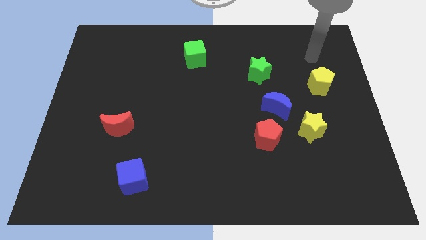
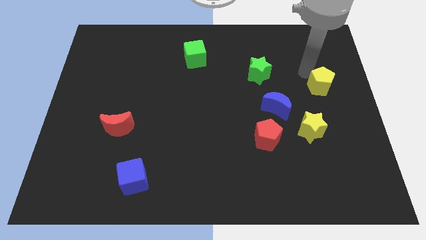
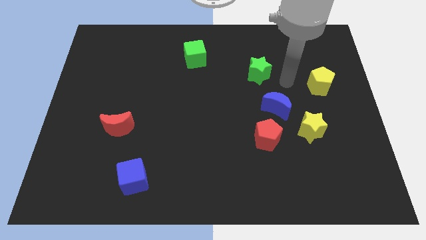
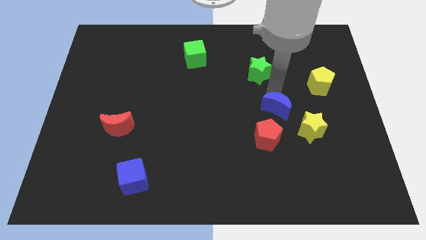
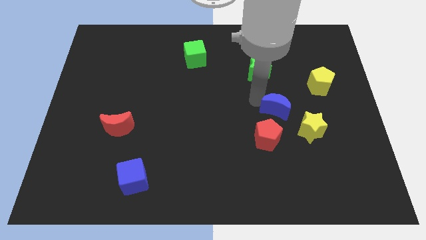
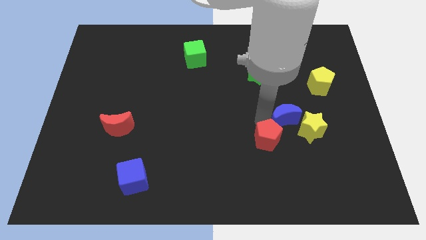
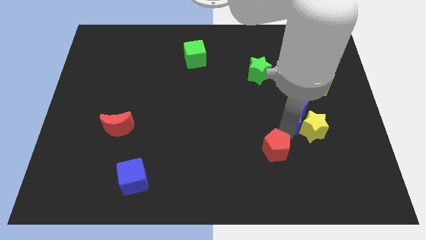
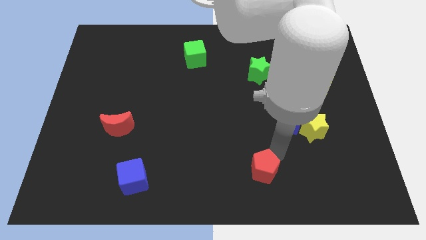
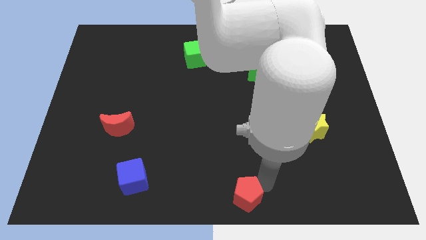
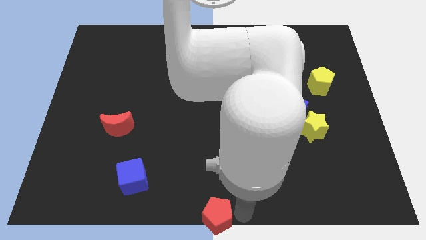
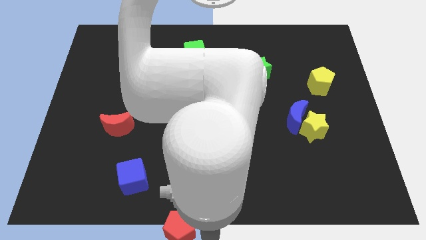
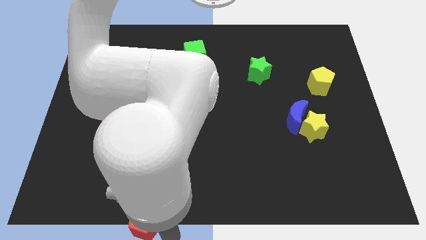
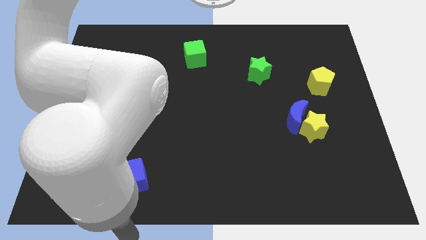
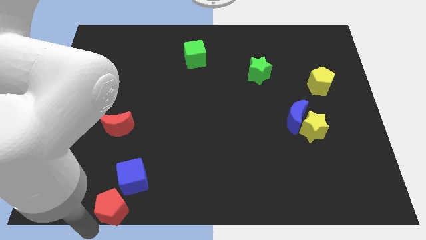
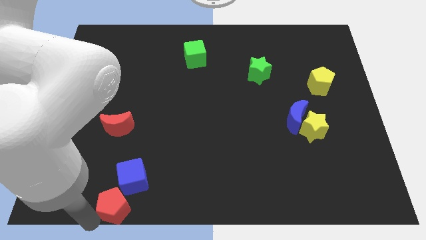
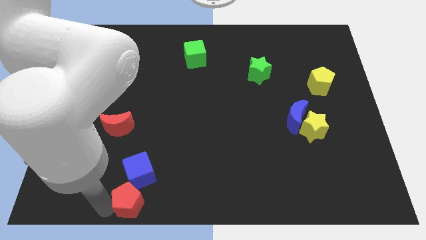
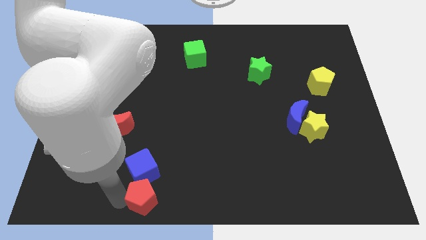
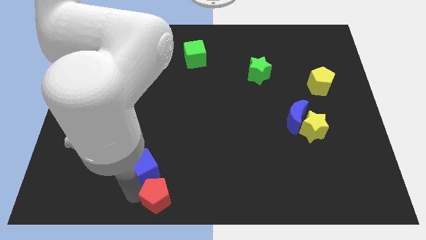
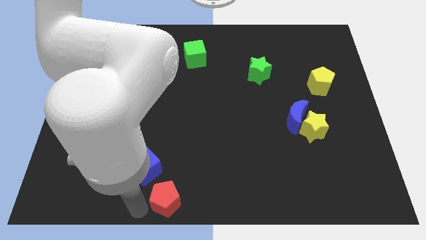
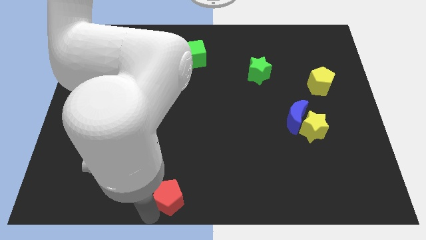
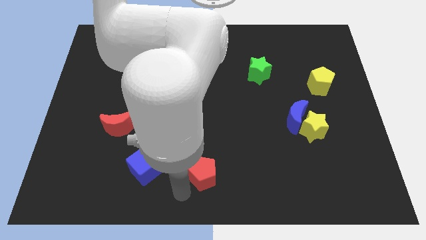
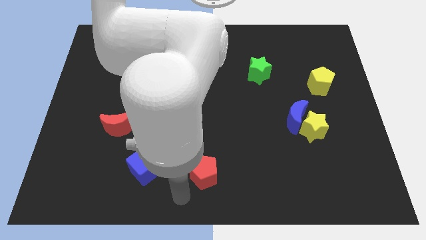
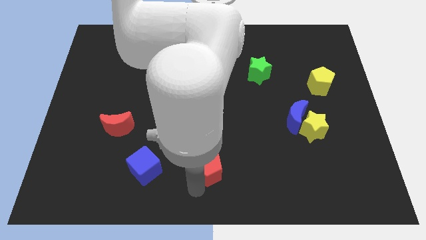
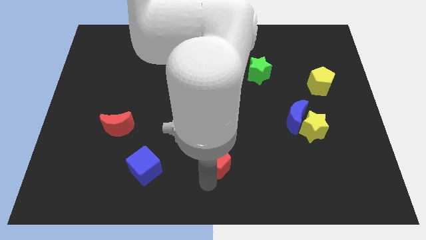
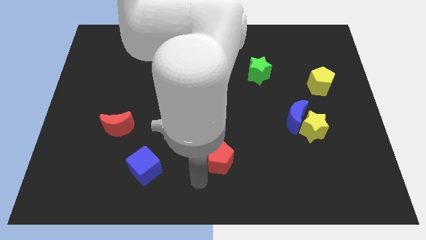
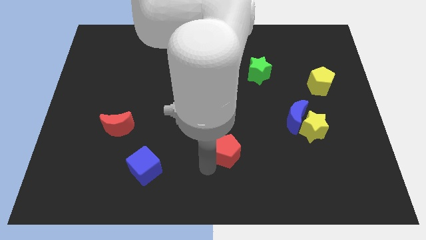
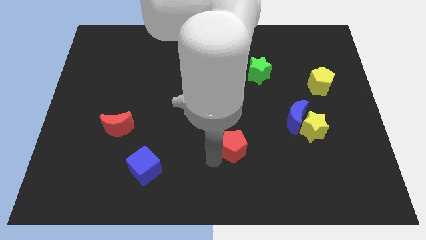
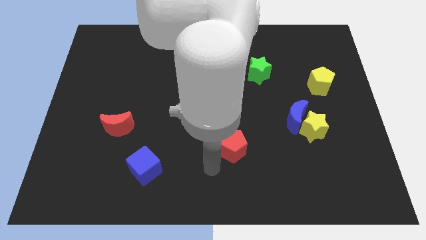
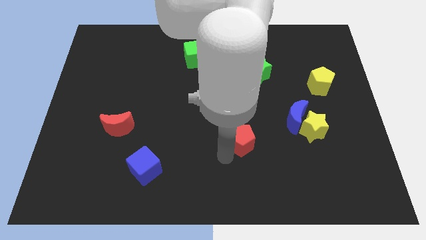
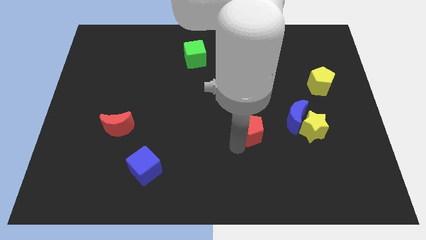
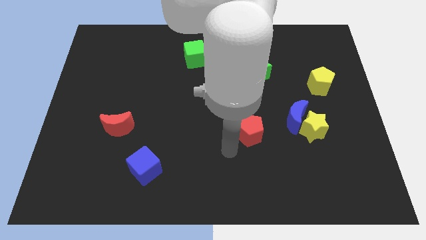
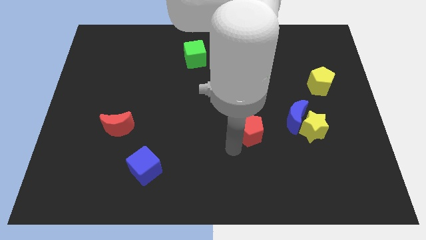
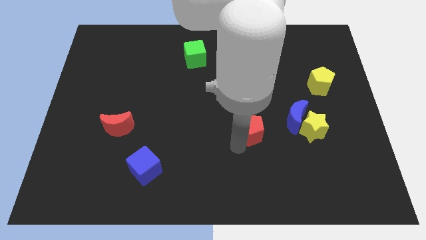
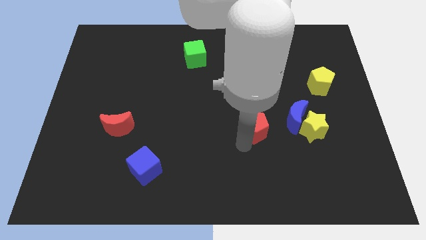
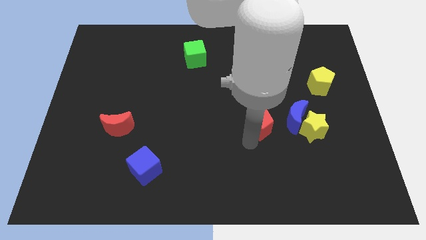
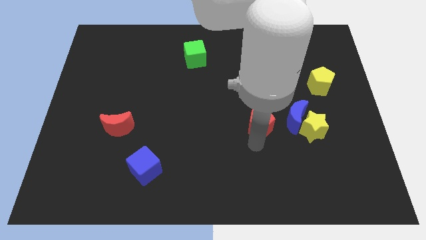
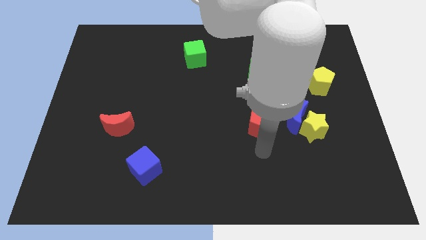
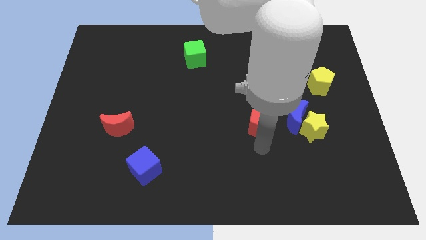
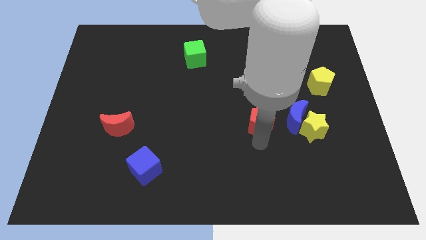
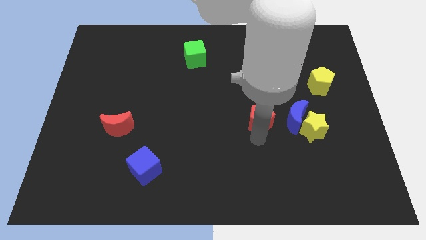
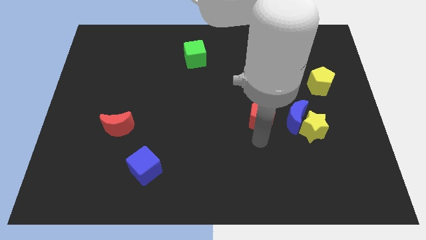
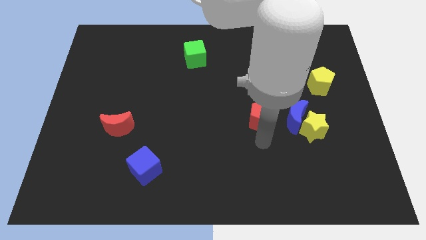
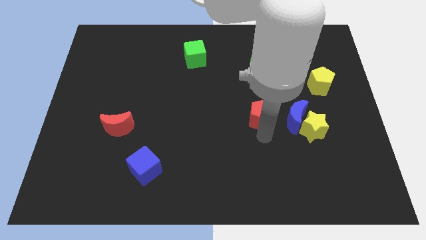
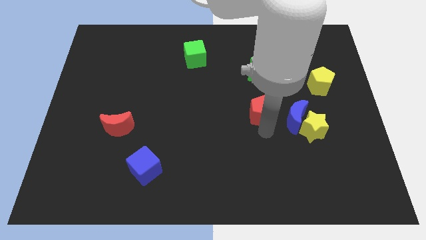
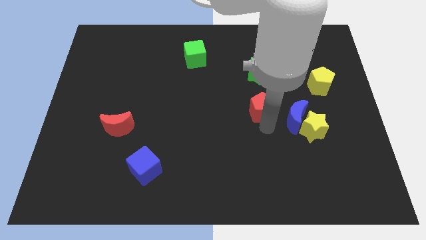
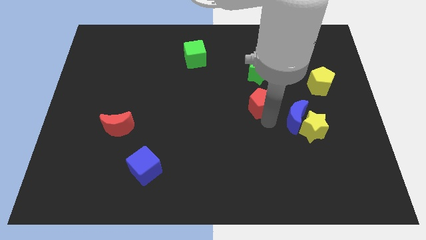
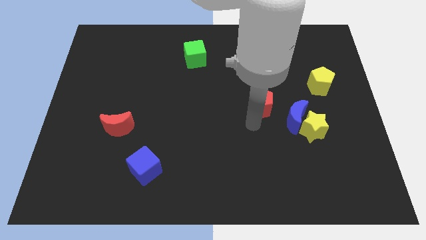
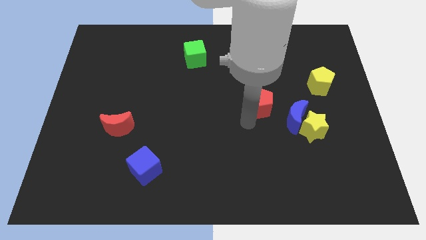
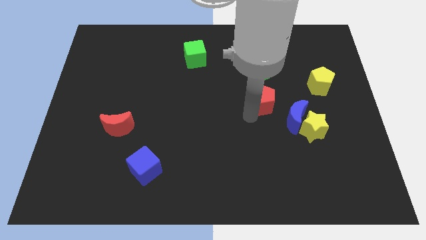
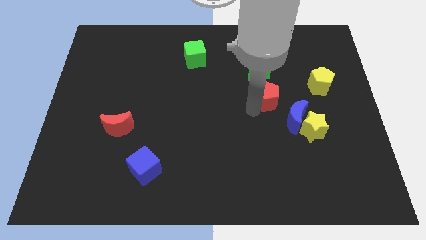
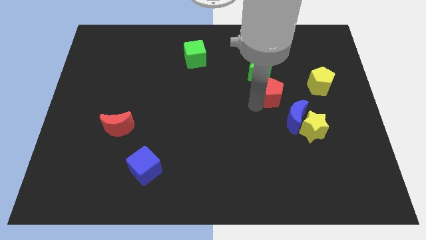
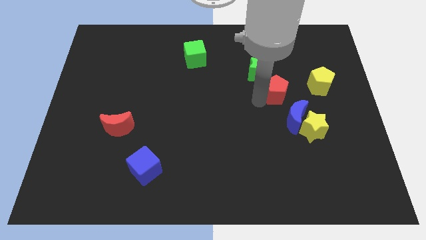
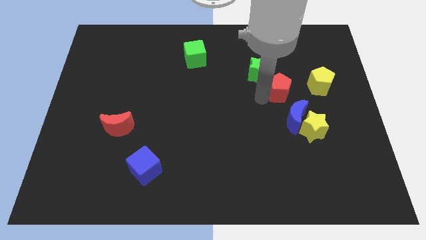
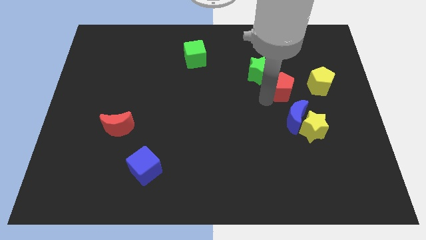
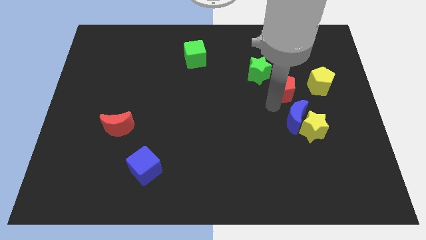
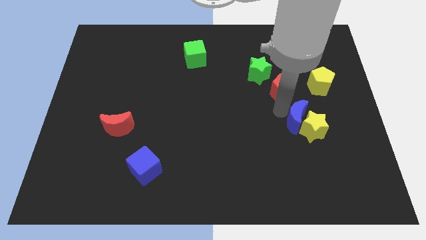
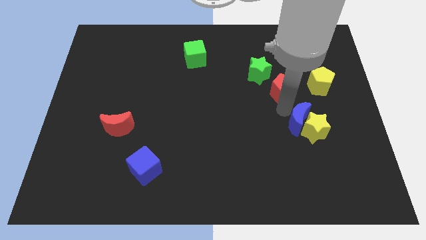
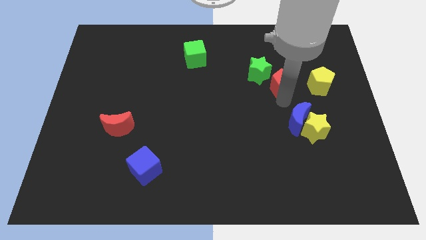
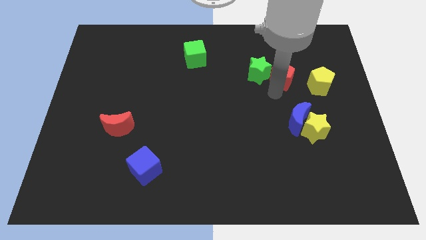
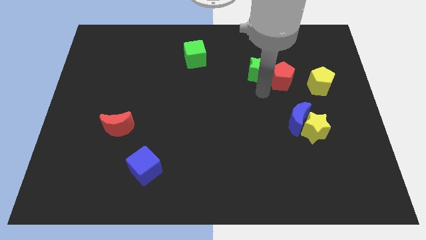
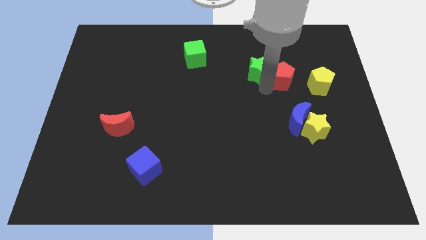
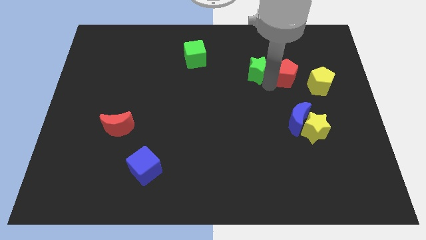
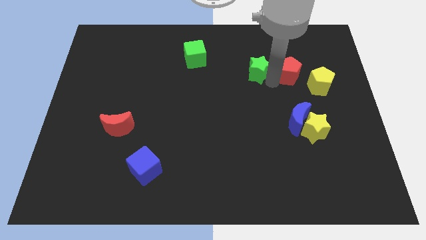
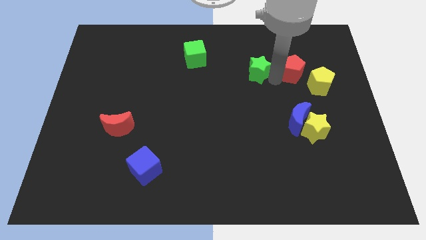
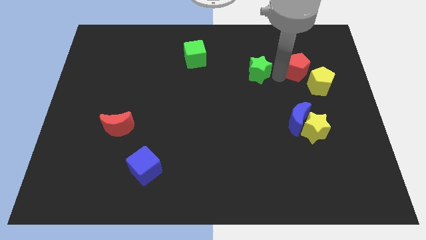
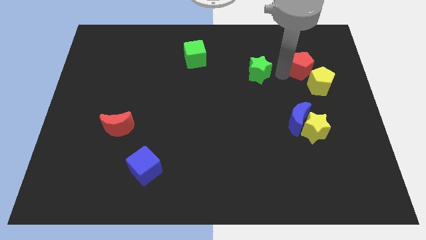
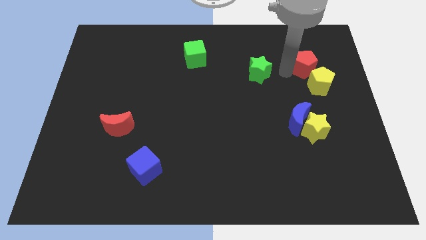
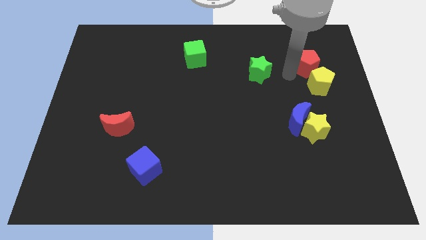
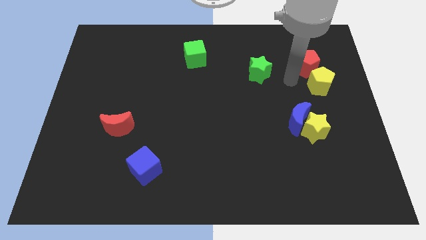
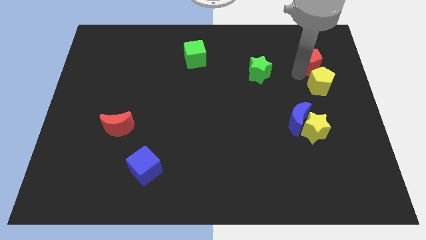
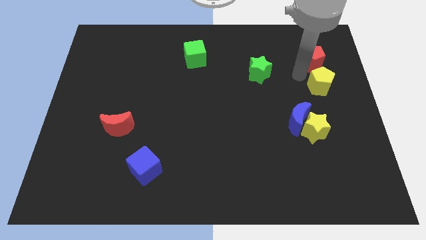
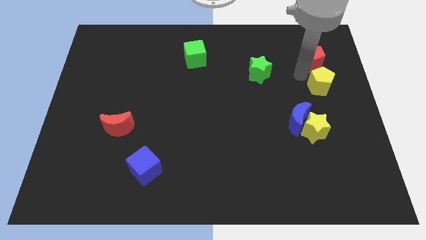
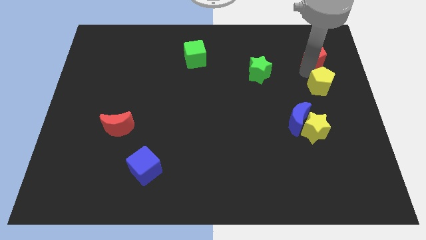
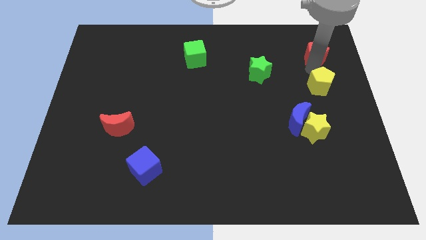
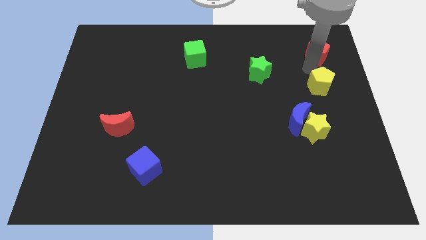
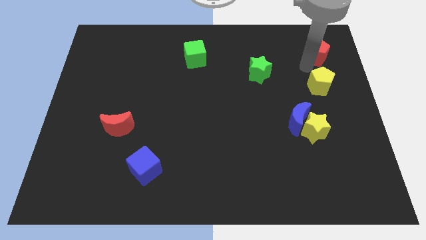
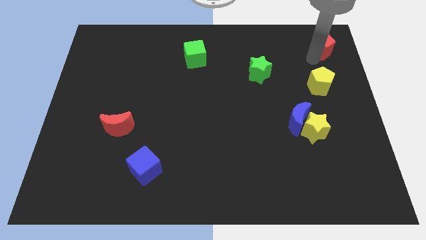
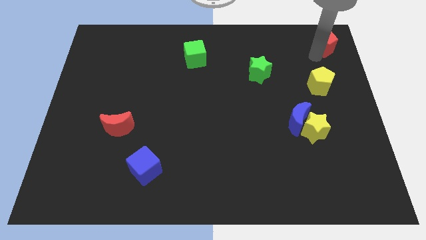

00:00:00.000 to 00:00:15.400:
move the red pentagon to the top right corner
